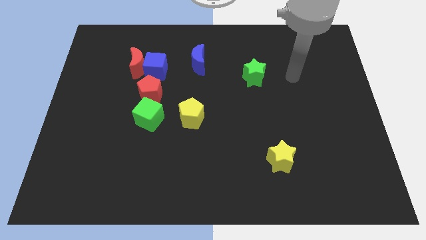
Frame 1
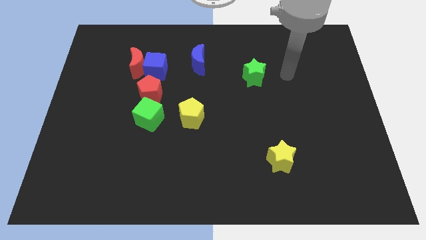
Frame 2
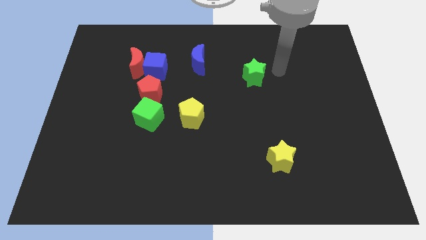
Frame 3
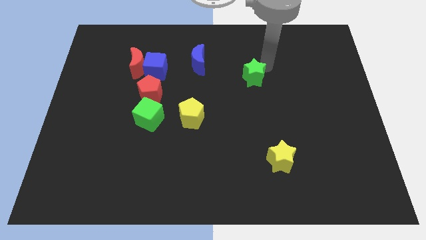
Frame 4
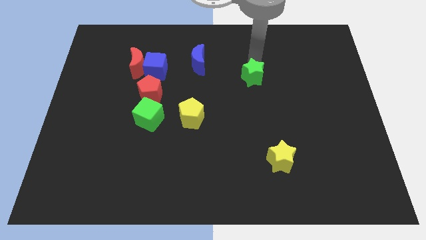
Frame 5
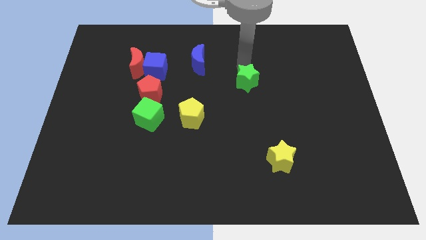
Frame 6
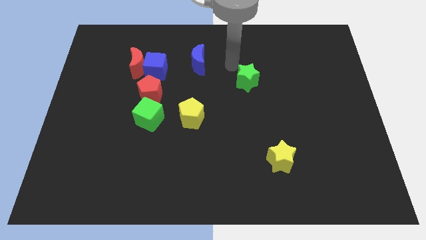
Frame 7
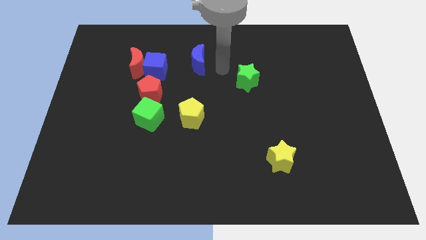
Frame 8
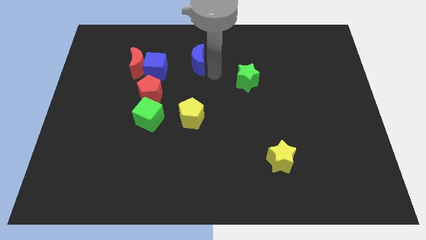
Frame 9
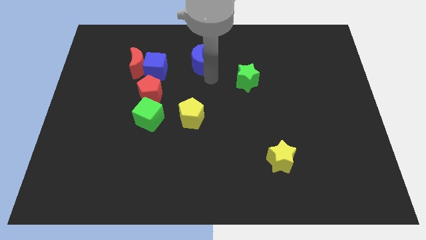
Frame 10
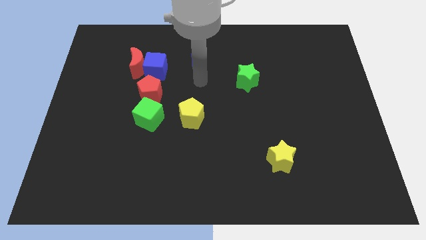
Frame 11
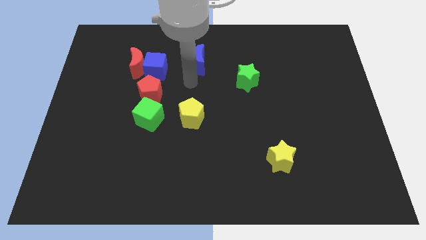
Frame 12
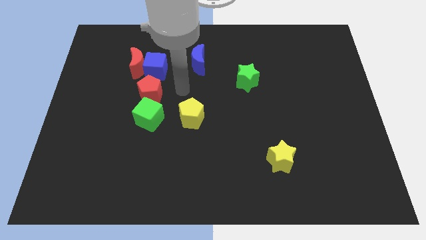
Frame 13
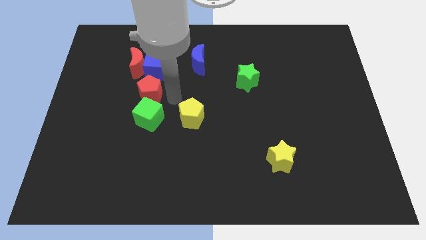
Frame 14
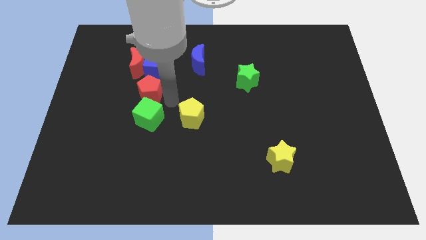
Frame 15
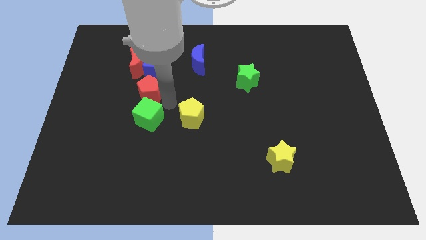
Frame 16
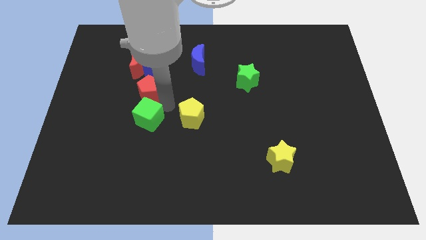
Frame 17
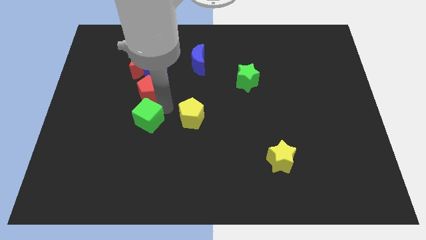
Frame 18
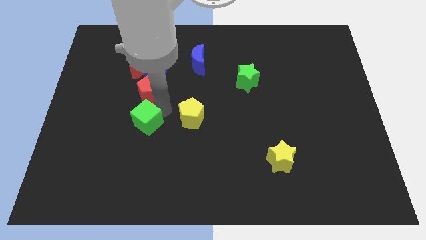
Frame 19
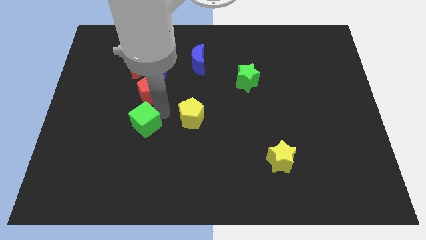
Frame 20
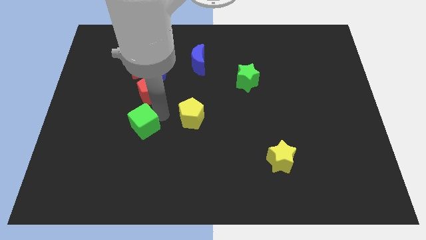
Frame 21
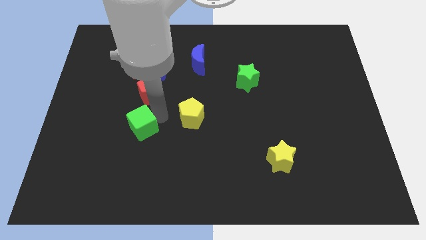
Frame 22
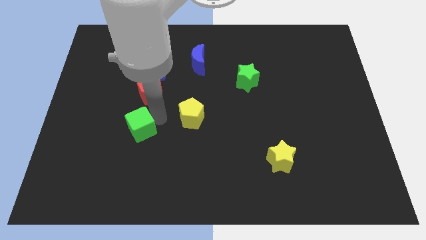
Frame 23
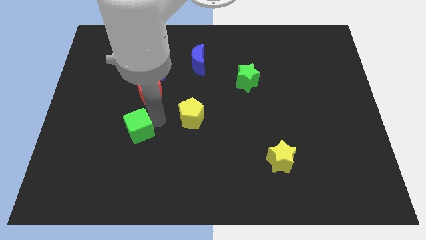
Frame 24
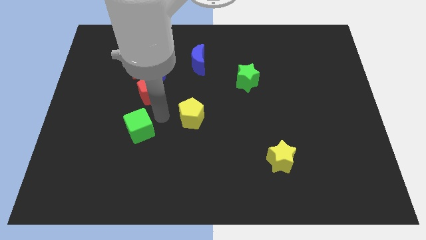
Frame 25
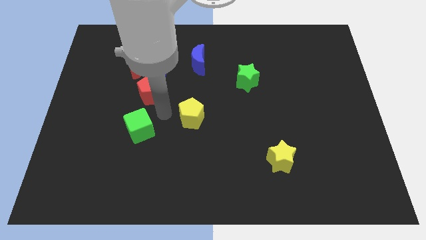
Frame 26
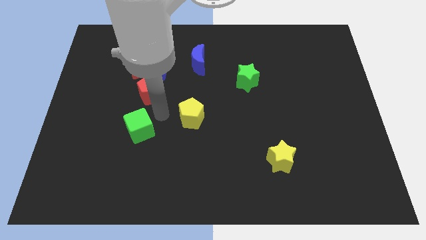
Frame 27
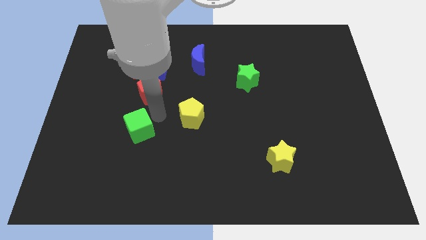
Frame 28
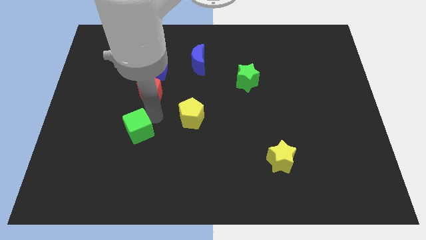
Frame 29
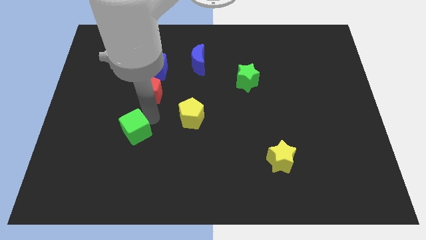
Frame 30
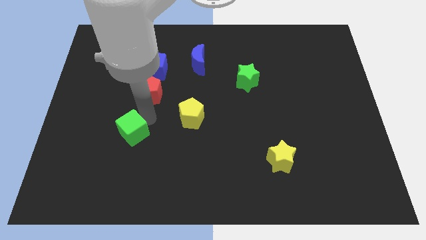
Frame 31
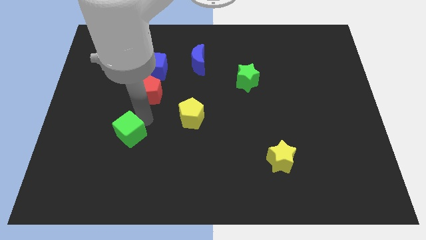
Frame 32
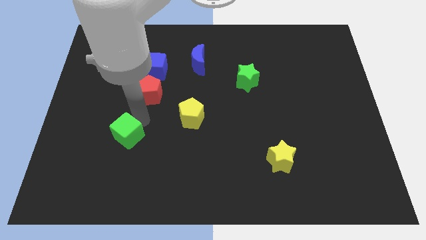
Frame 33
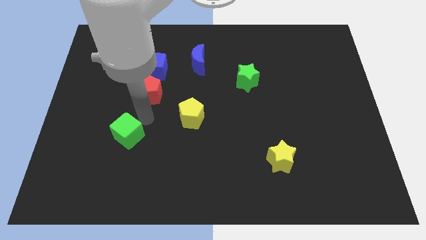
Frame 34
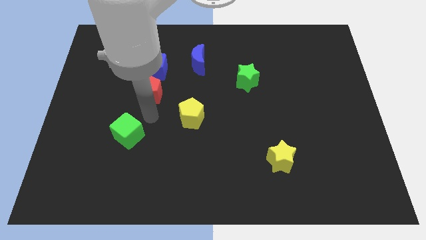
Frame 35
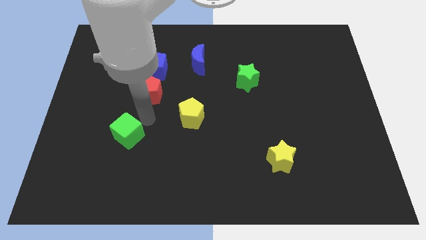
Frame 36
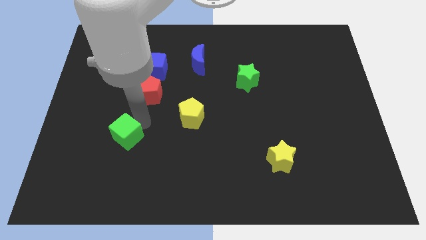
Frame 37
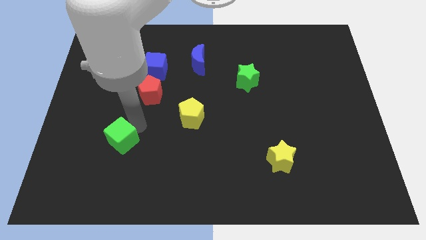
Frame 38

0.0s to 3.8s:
slightly move the green cube downwards and to the left

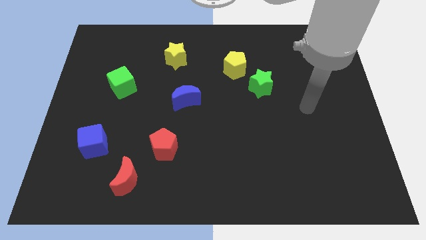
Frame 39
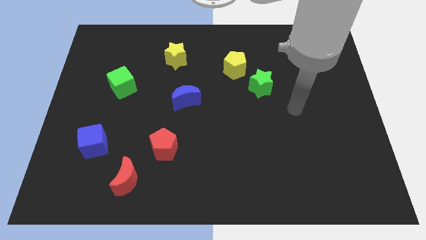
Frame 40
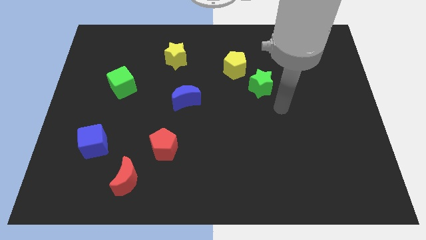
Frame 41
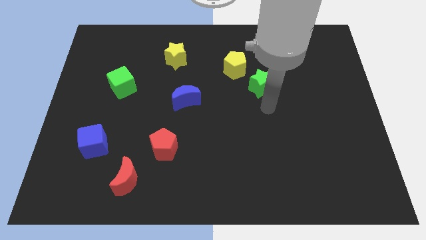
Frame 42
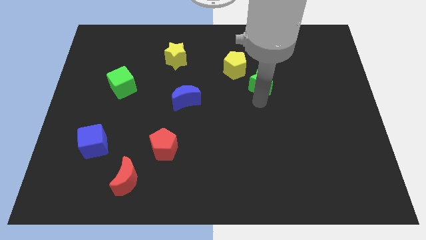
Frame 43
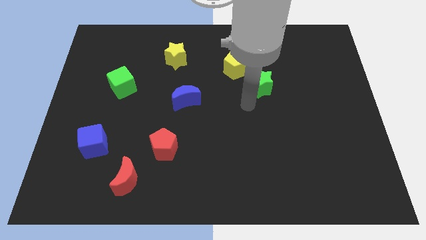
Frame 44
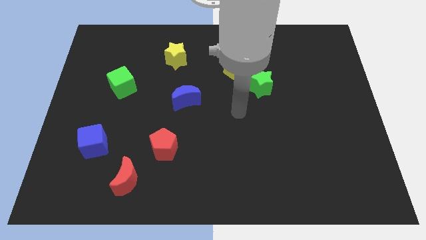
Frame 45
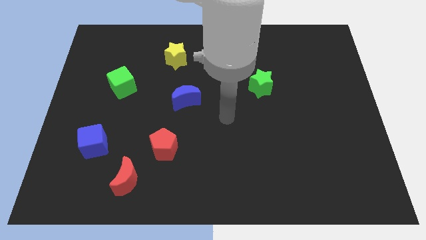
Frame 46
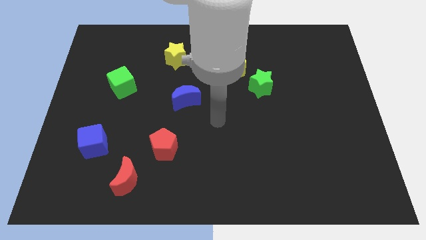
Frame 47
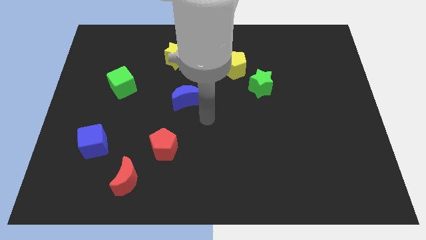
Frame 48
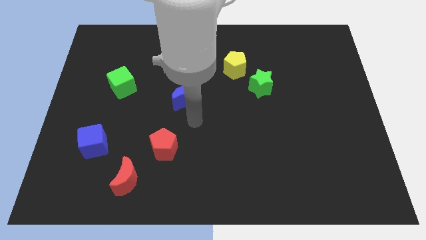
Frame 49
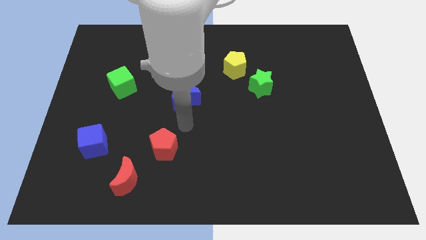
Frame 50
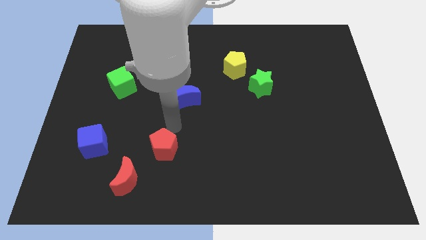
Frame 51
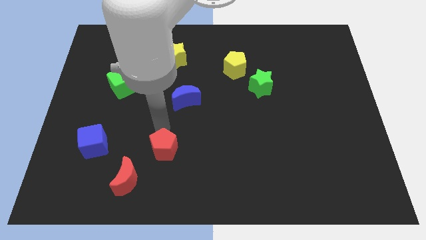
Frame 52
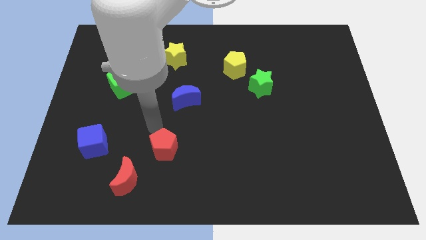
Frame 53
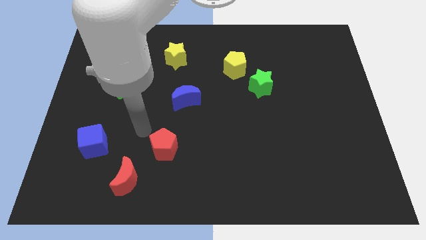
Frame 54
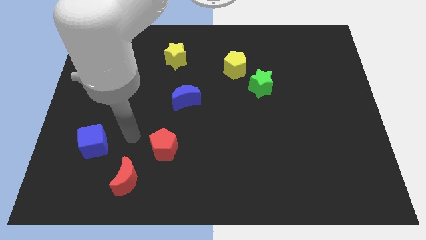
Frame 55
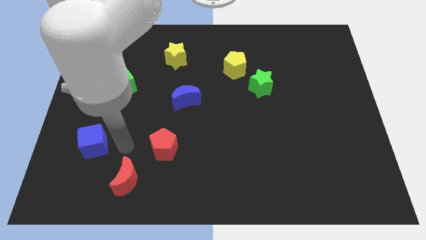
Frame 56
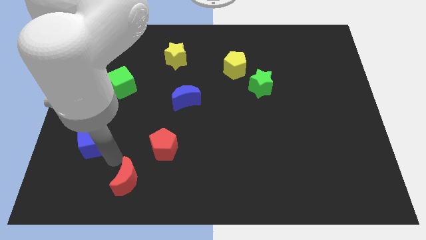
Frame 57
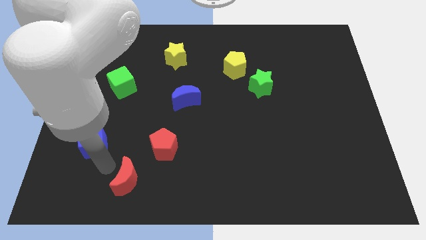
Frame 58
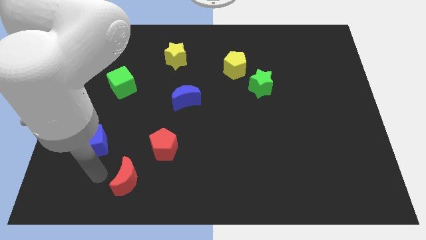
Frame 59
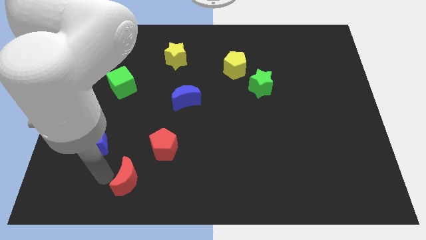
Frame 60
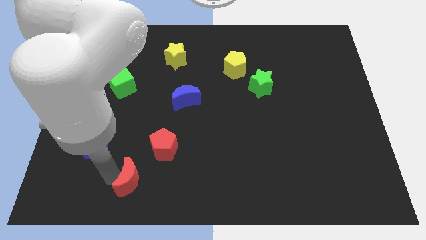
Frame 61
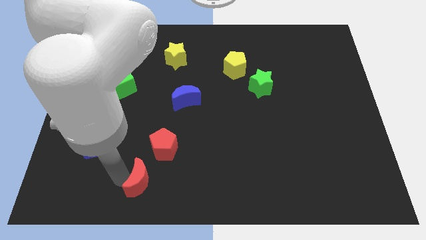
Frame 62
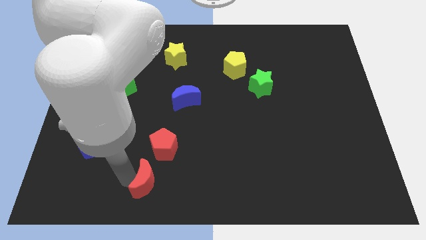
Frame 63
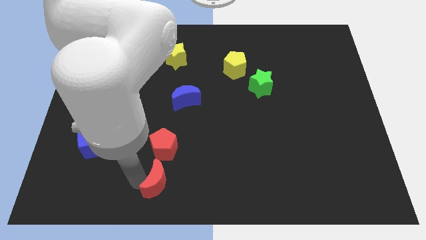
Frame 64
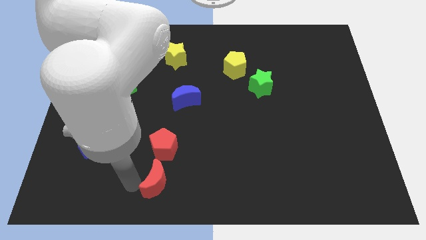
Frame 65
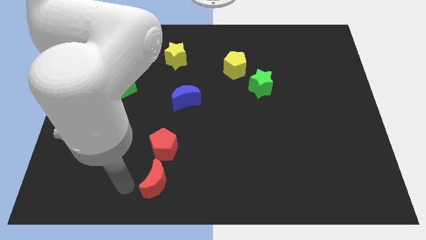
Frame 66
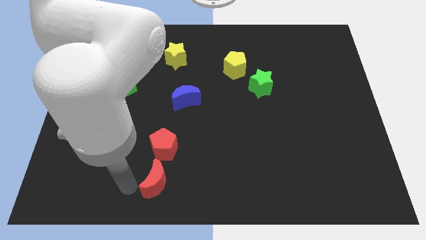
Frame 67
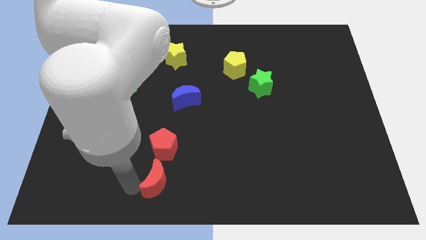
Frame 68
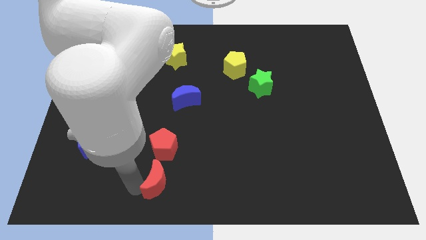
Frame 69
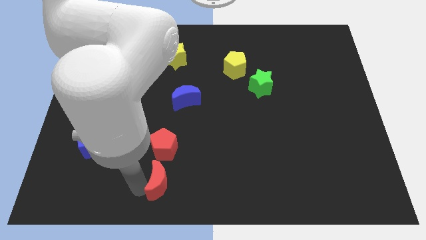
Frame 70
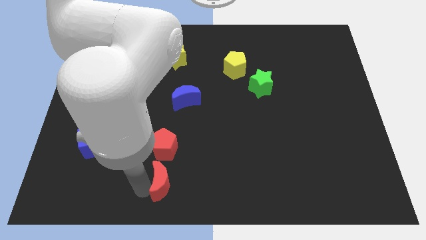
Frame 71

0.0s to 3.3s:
slightly push the red moon to the right

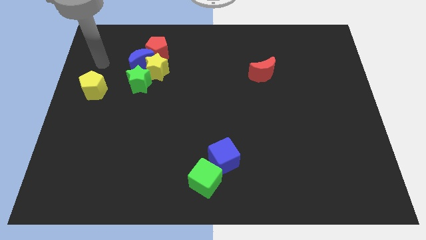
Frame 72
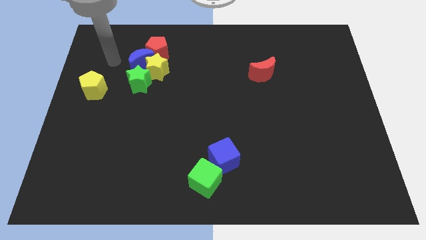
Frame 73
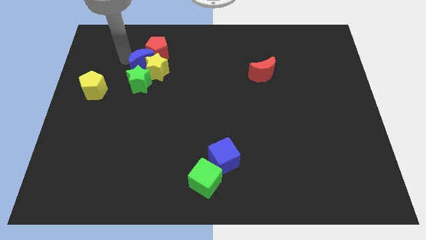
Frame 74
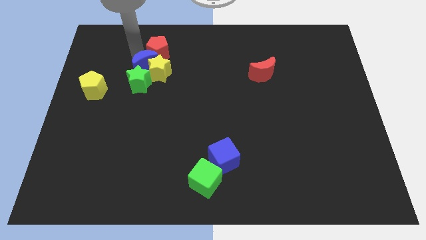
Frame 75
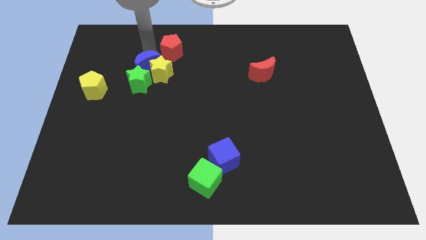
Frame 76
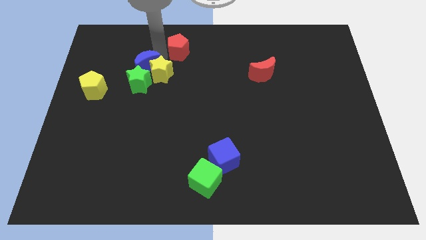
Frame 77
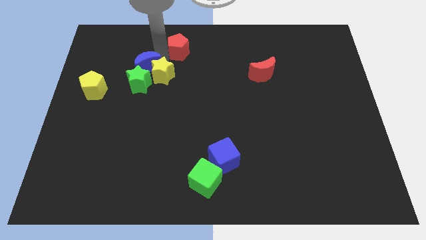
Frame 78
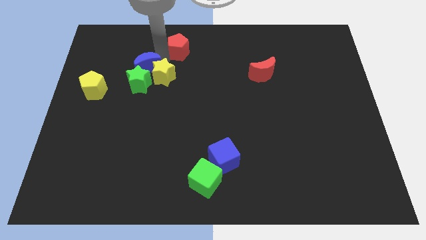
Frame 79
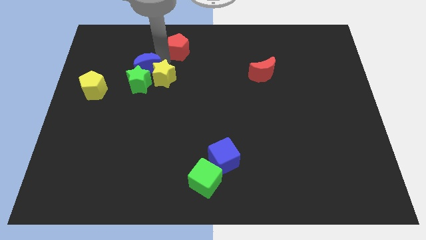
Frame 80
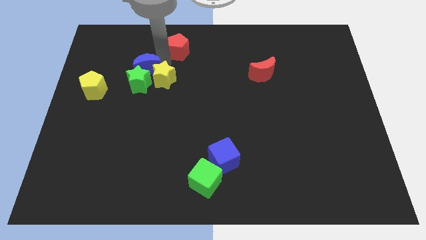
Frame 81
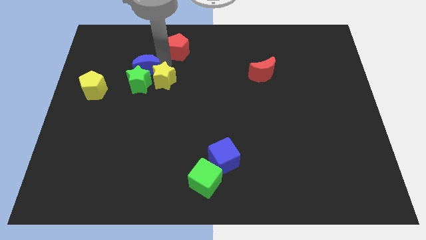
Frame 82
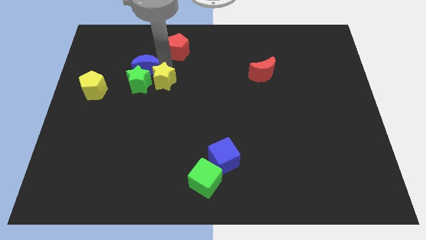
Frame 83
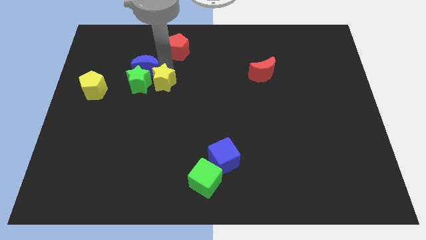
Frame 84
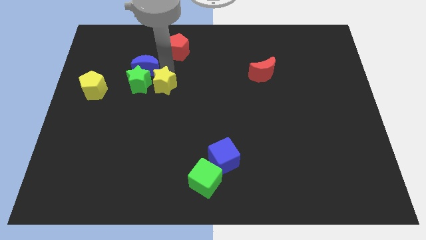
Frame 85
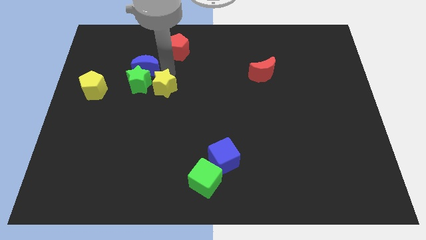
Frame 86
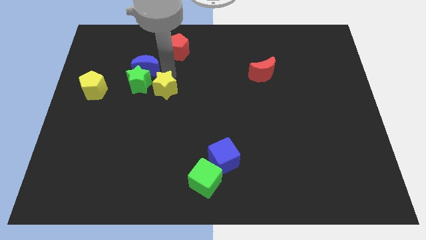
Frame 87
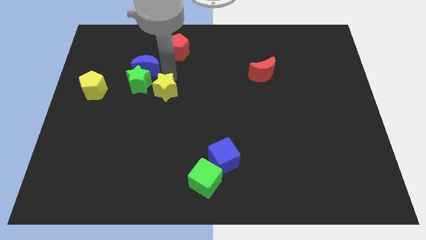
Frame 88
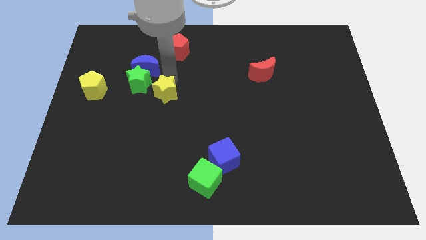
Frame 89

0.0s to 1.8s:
slightly slide the yellow star down
